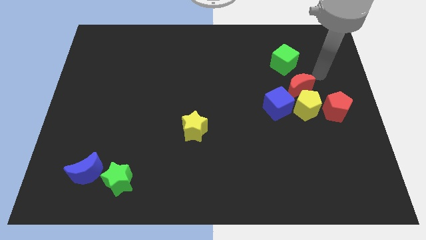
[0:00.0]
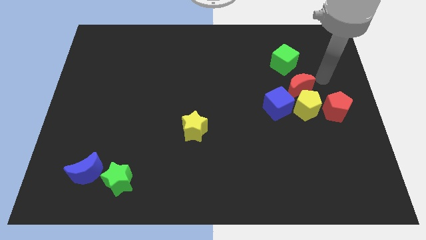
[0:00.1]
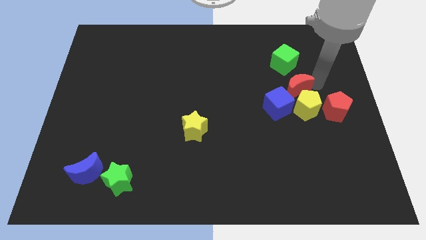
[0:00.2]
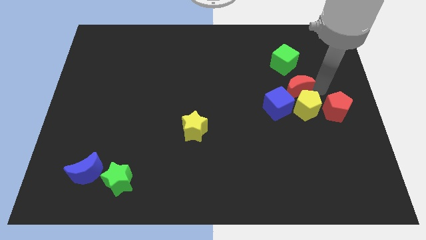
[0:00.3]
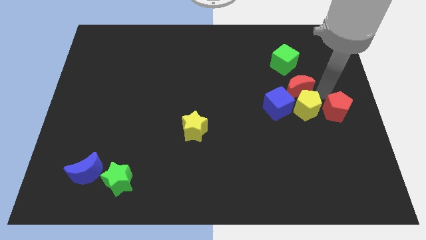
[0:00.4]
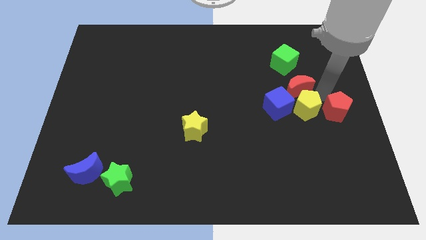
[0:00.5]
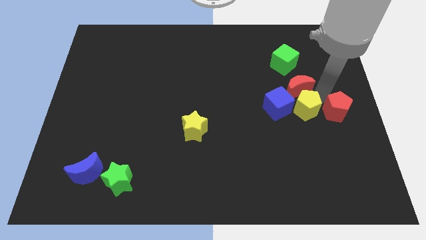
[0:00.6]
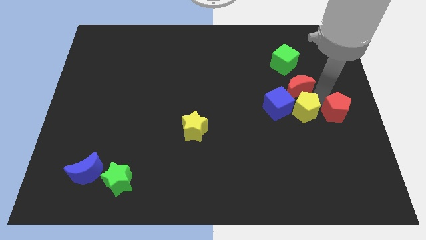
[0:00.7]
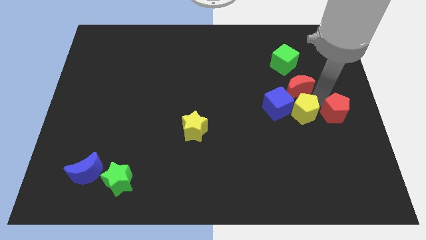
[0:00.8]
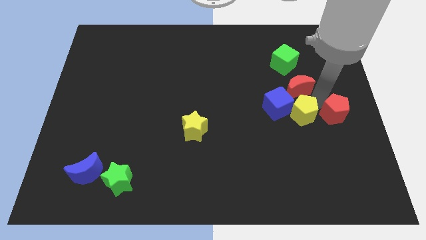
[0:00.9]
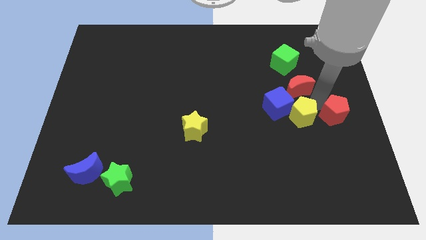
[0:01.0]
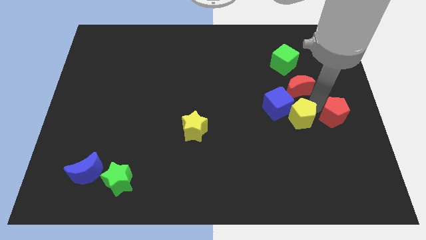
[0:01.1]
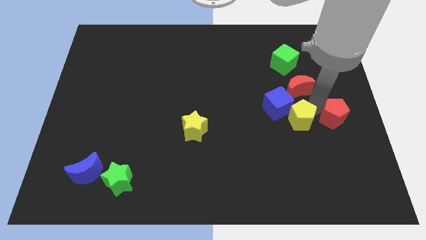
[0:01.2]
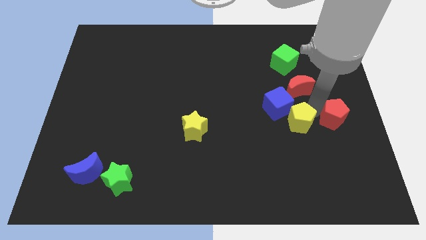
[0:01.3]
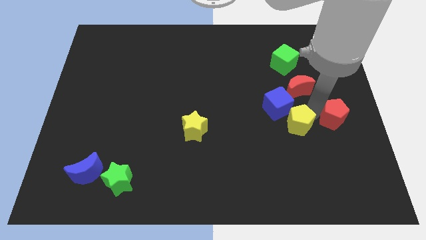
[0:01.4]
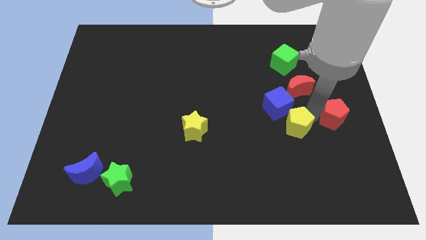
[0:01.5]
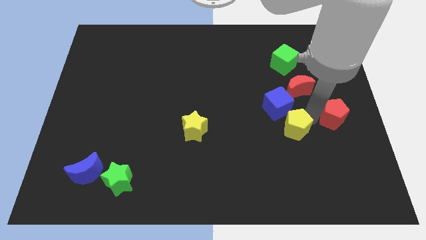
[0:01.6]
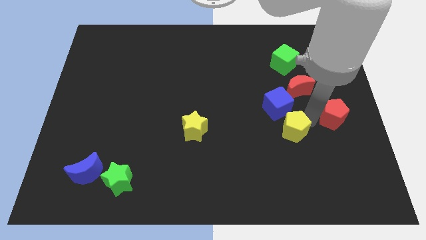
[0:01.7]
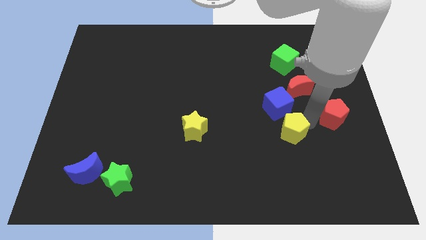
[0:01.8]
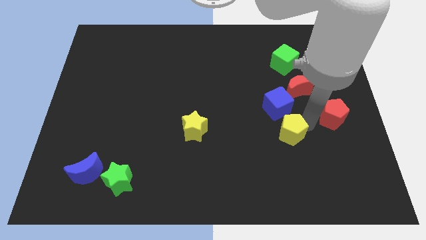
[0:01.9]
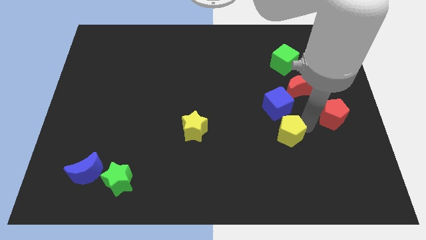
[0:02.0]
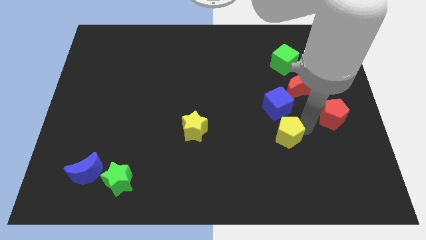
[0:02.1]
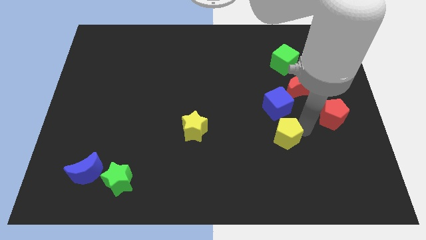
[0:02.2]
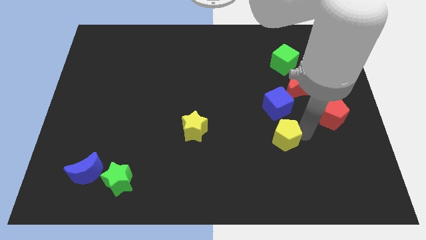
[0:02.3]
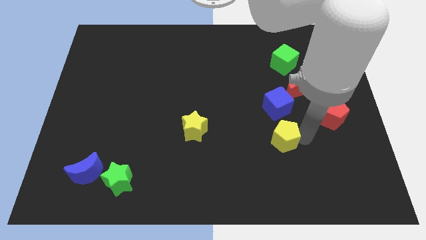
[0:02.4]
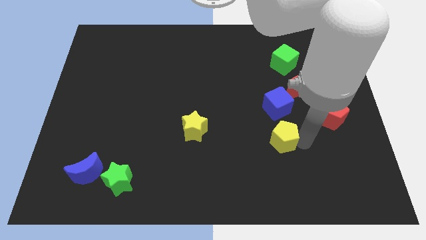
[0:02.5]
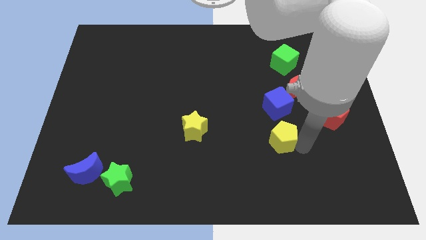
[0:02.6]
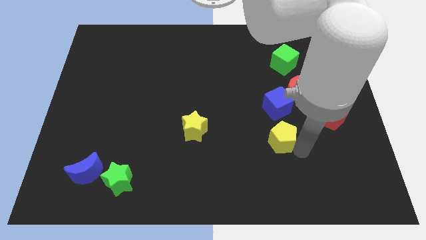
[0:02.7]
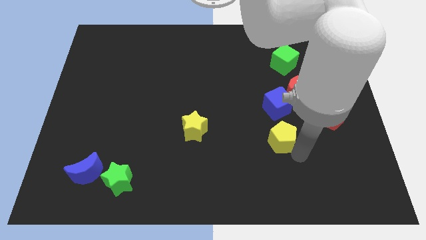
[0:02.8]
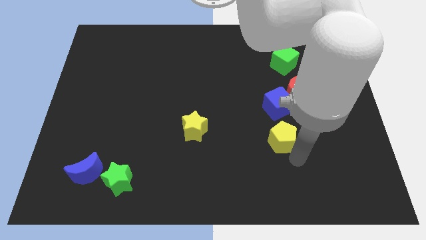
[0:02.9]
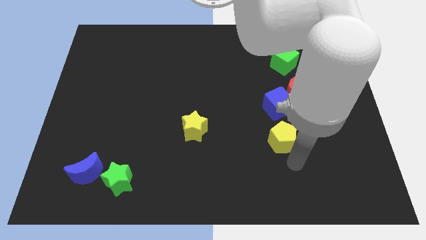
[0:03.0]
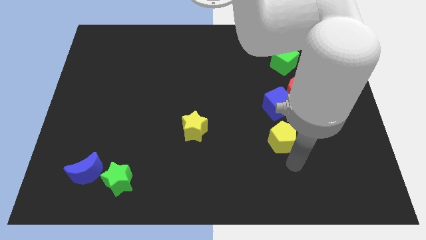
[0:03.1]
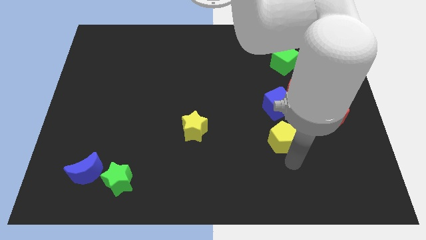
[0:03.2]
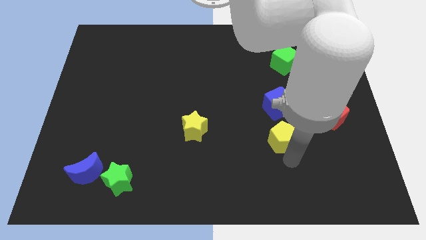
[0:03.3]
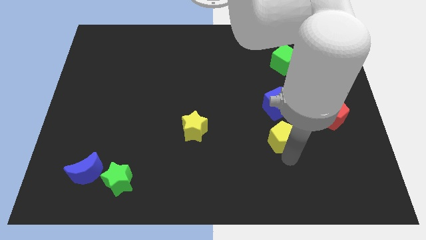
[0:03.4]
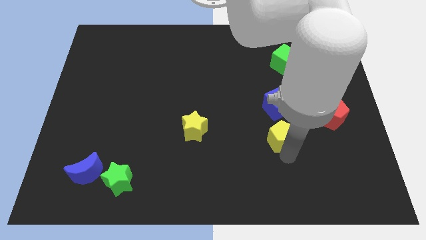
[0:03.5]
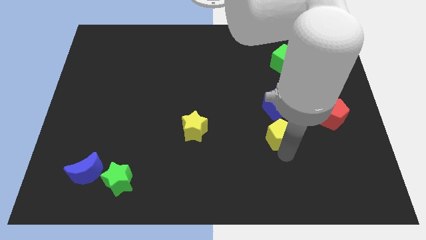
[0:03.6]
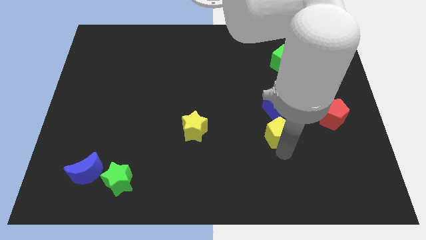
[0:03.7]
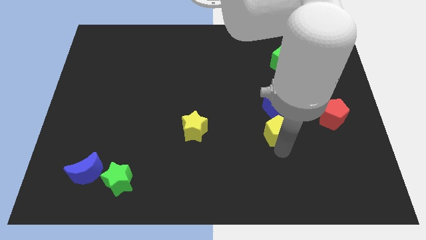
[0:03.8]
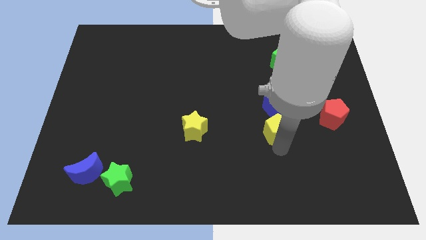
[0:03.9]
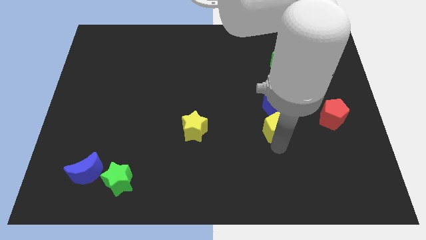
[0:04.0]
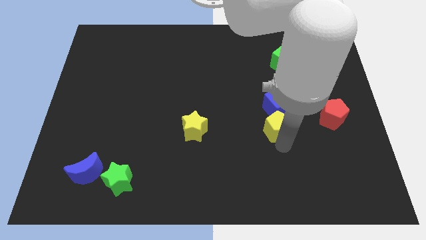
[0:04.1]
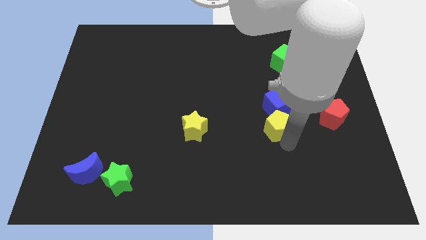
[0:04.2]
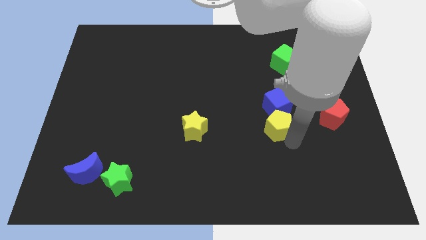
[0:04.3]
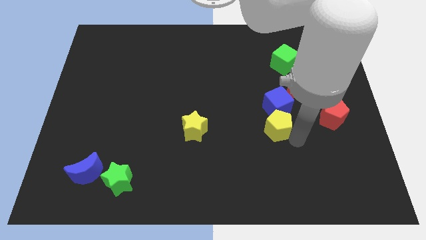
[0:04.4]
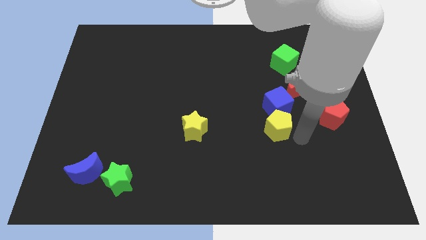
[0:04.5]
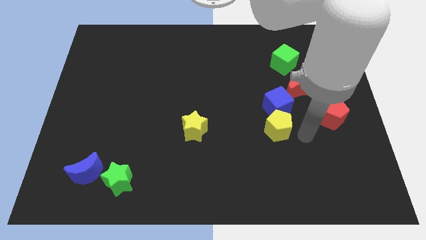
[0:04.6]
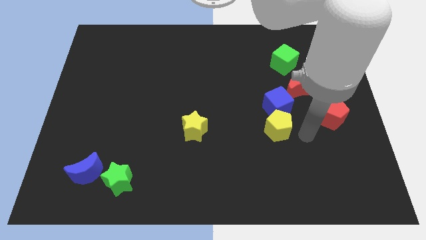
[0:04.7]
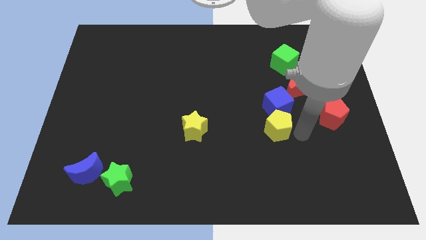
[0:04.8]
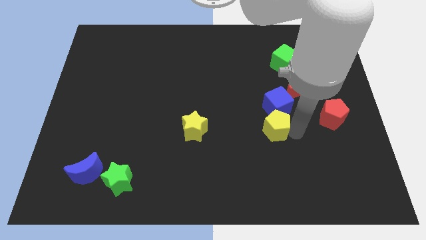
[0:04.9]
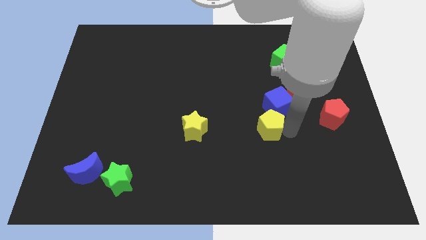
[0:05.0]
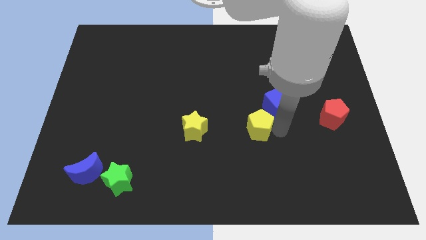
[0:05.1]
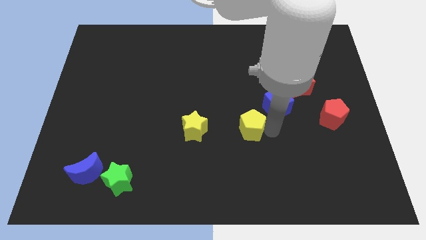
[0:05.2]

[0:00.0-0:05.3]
slide the yellow pentagon to the middle of the board

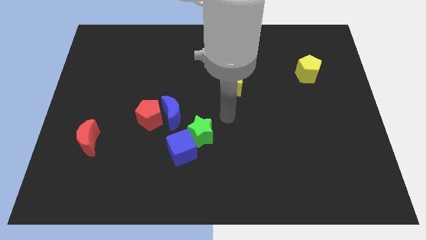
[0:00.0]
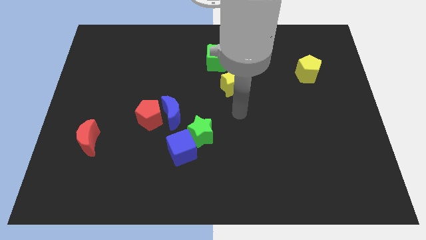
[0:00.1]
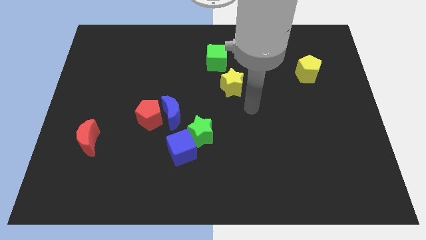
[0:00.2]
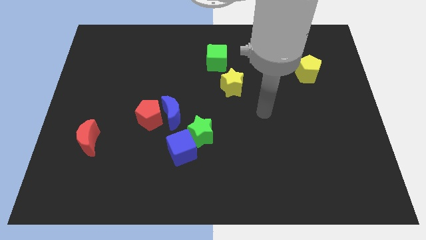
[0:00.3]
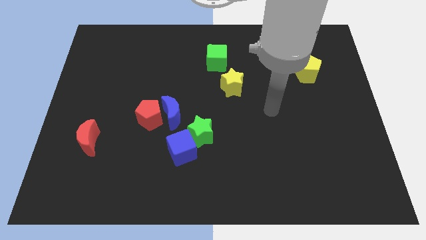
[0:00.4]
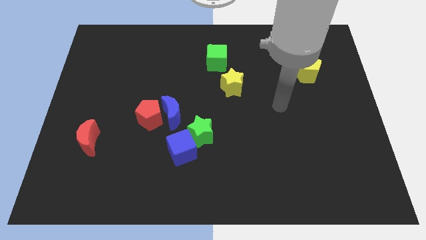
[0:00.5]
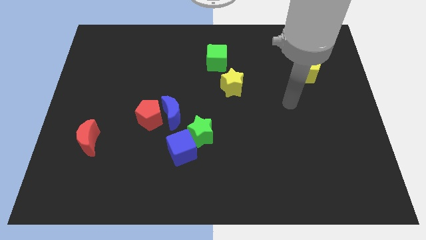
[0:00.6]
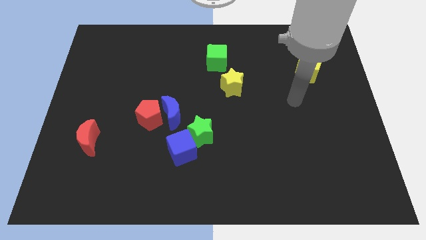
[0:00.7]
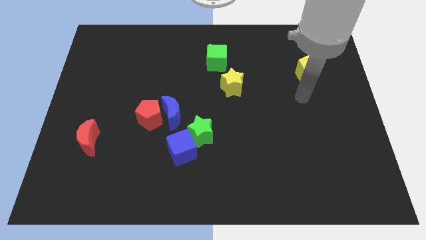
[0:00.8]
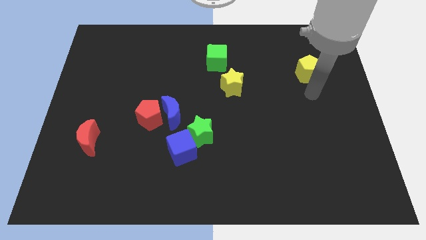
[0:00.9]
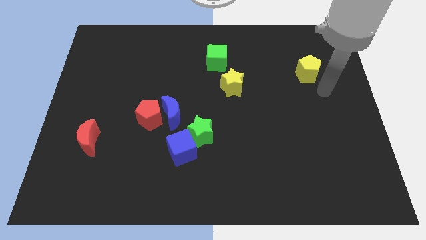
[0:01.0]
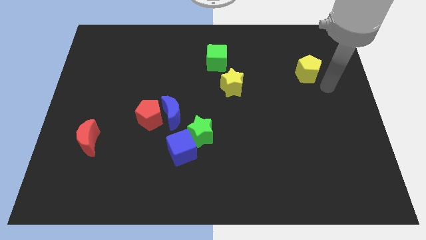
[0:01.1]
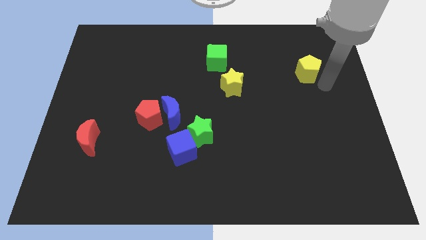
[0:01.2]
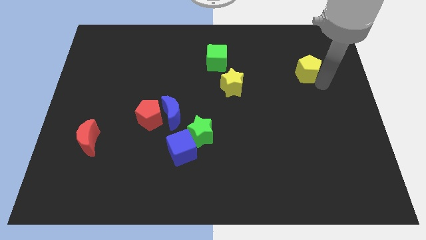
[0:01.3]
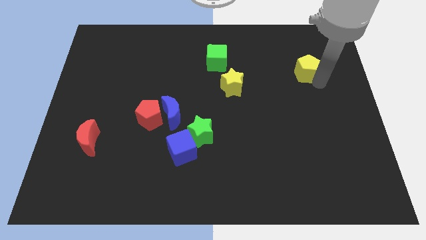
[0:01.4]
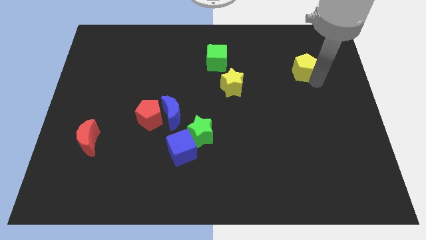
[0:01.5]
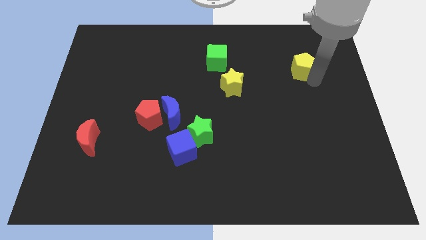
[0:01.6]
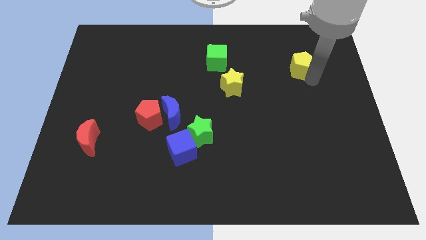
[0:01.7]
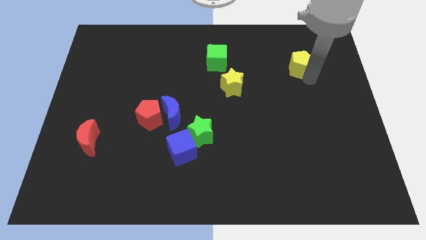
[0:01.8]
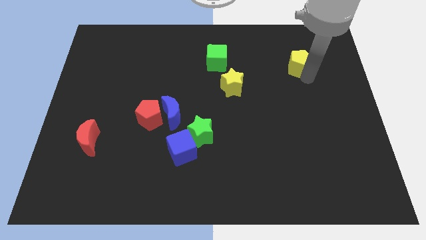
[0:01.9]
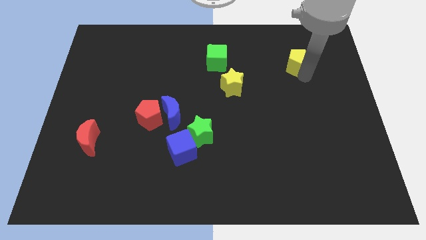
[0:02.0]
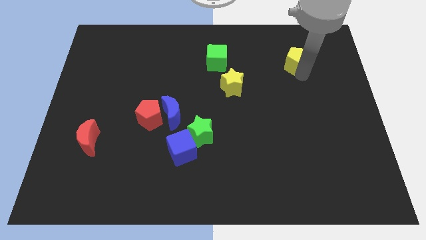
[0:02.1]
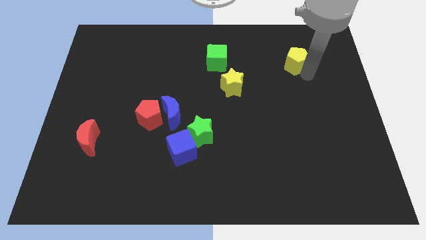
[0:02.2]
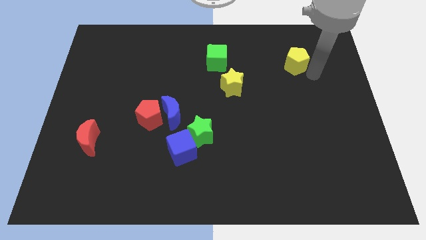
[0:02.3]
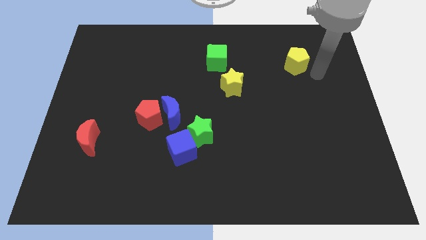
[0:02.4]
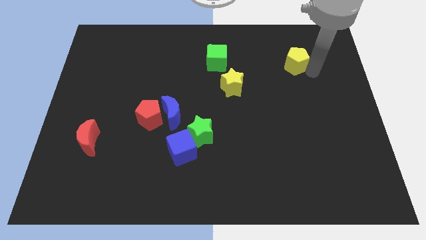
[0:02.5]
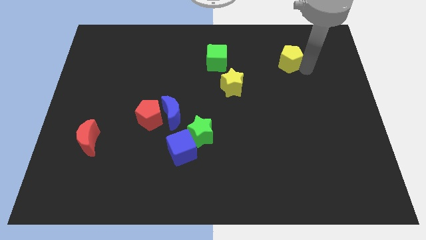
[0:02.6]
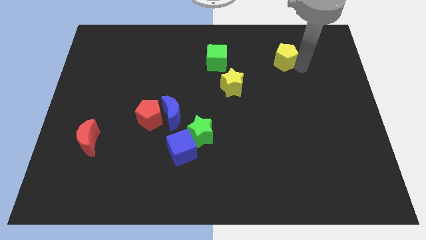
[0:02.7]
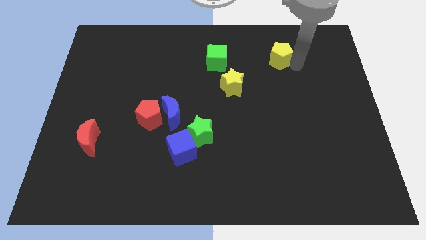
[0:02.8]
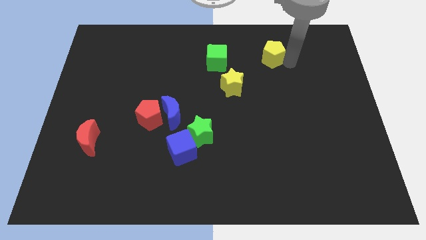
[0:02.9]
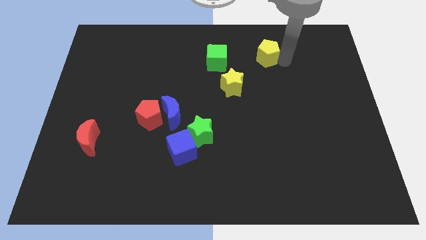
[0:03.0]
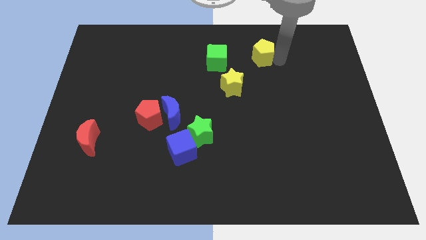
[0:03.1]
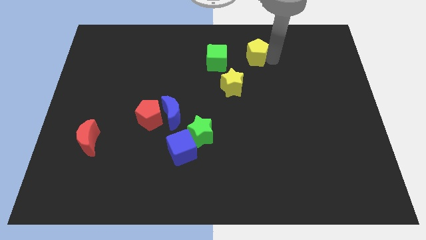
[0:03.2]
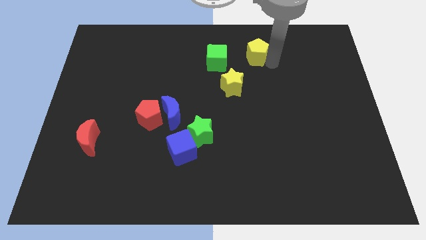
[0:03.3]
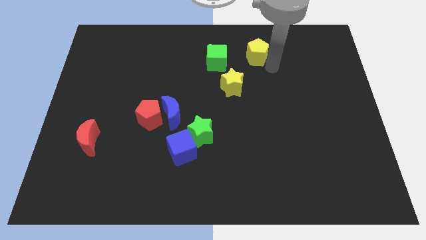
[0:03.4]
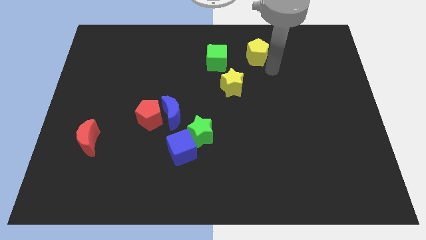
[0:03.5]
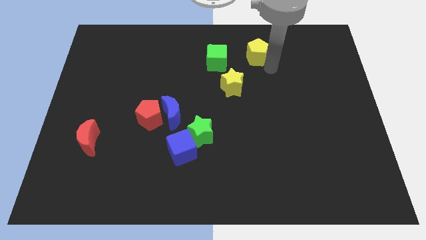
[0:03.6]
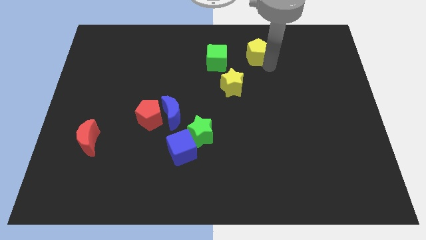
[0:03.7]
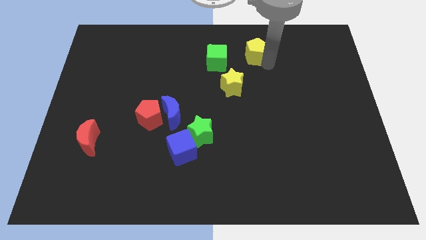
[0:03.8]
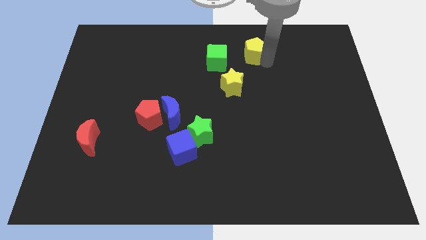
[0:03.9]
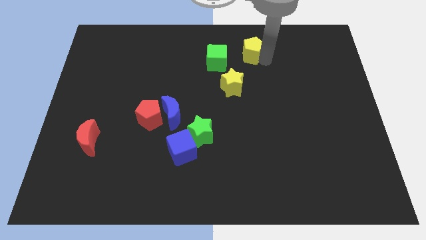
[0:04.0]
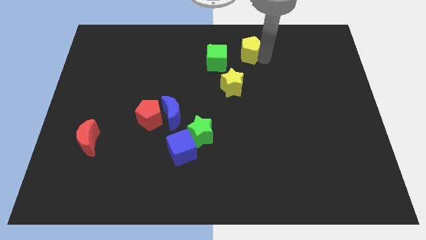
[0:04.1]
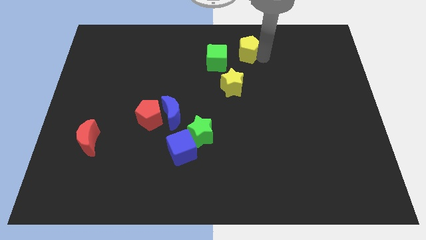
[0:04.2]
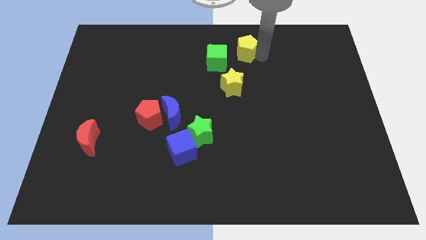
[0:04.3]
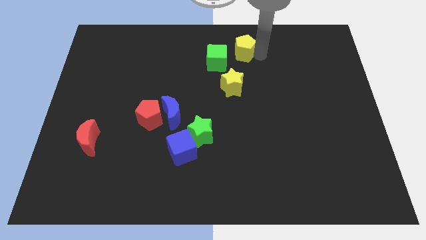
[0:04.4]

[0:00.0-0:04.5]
put the yellow pentagon to the top
